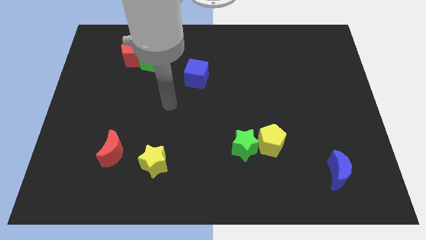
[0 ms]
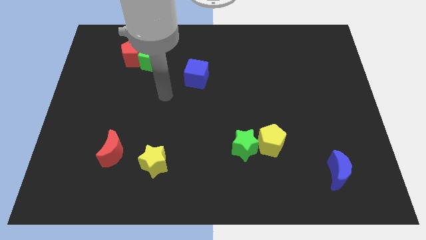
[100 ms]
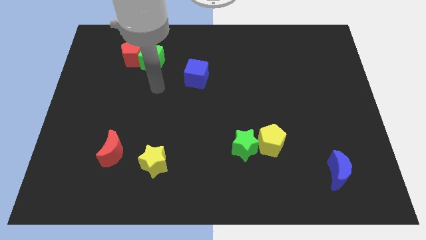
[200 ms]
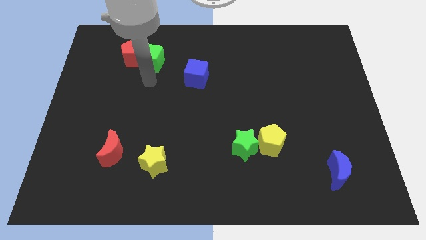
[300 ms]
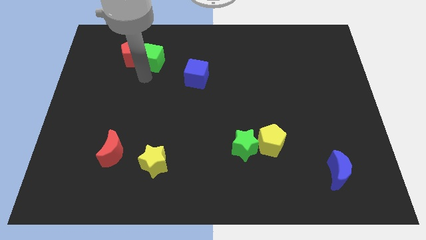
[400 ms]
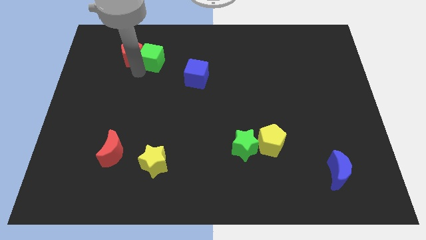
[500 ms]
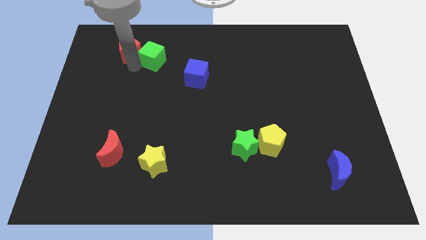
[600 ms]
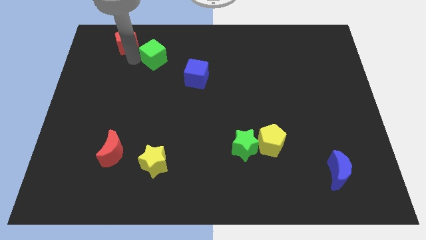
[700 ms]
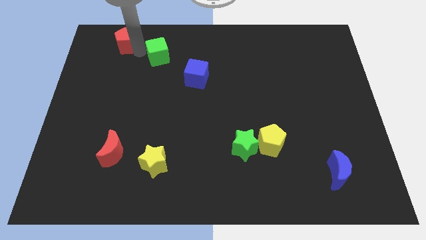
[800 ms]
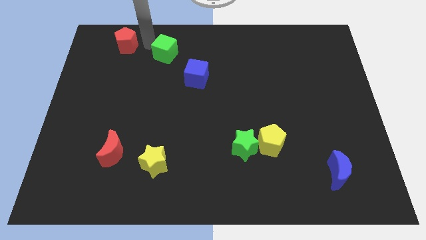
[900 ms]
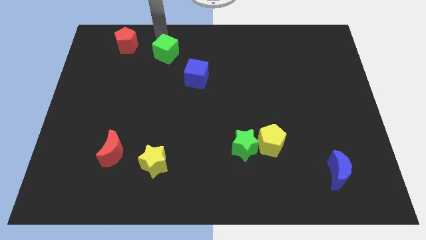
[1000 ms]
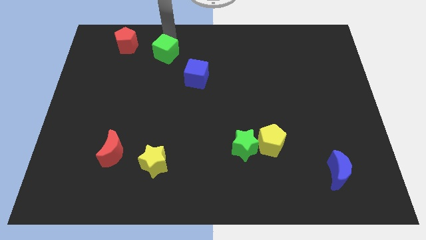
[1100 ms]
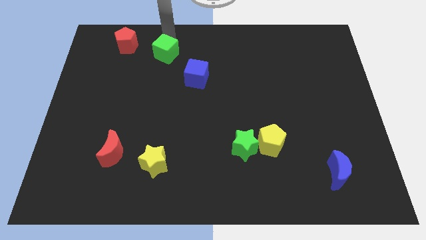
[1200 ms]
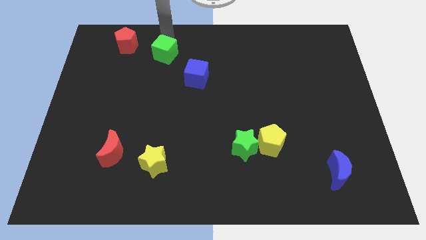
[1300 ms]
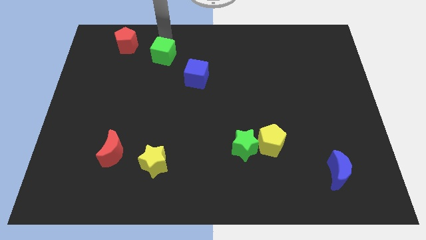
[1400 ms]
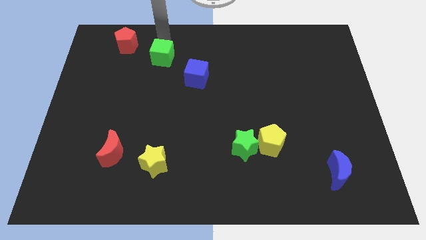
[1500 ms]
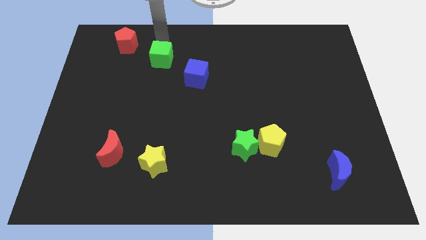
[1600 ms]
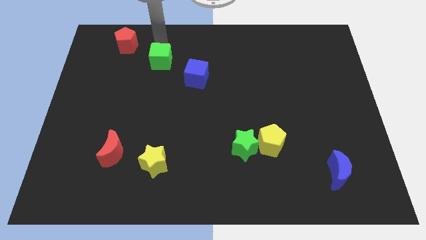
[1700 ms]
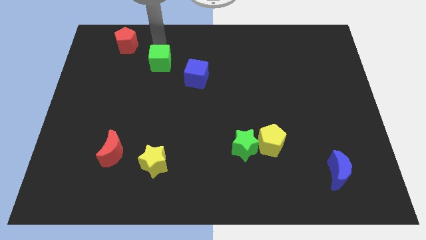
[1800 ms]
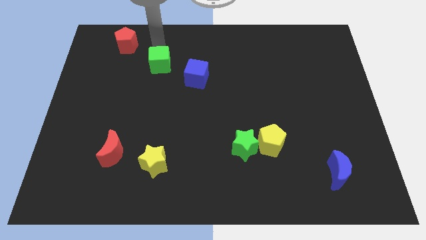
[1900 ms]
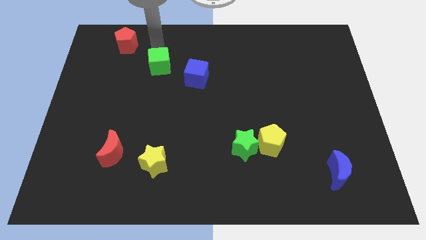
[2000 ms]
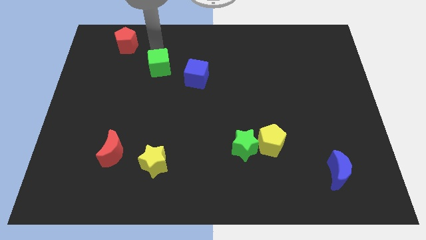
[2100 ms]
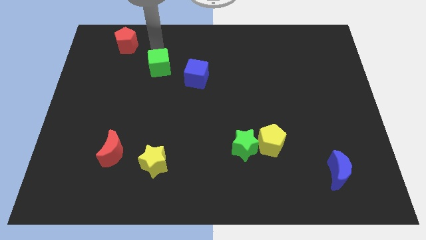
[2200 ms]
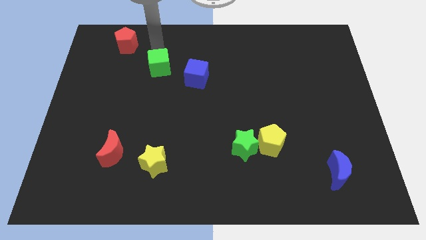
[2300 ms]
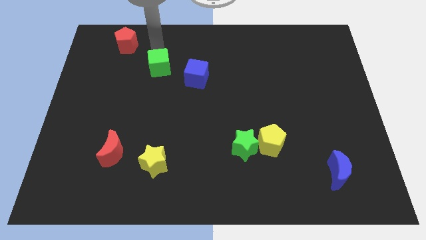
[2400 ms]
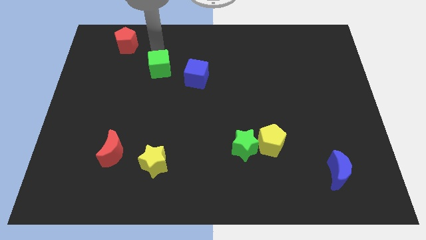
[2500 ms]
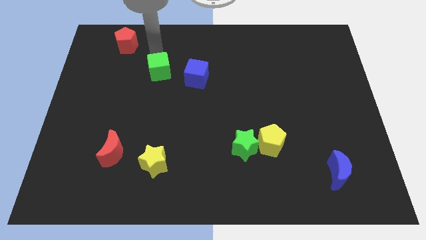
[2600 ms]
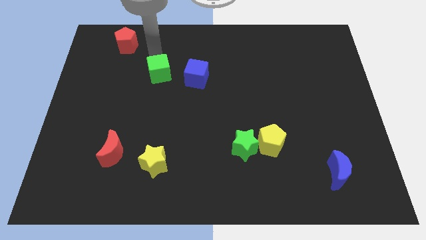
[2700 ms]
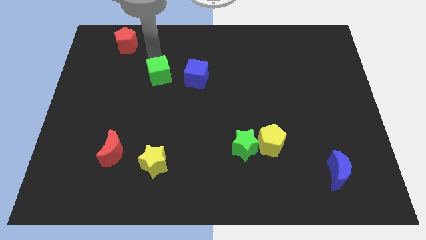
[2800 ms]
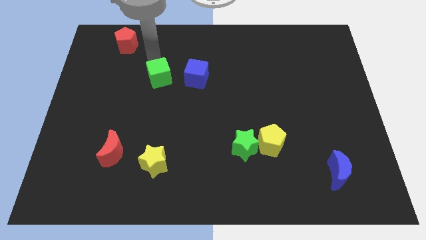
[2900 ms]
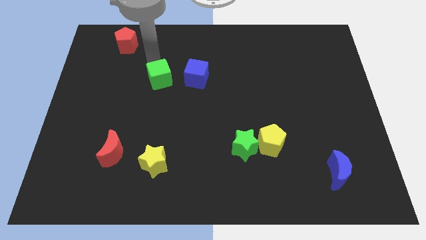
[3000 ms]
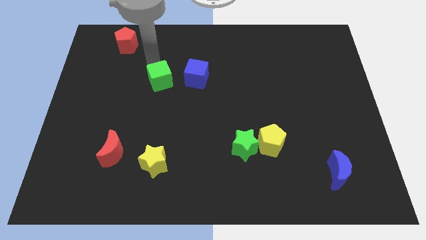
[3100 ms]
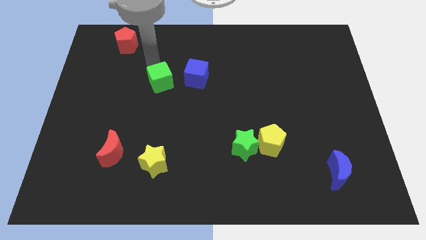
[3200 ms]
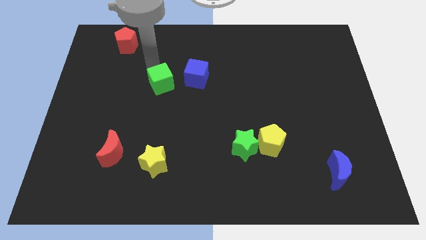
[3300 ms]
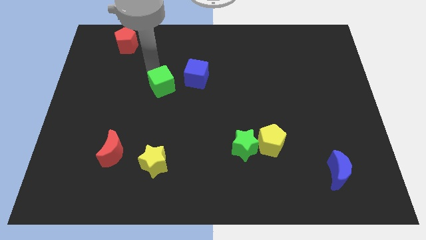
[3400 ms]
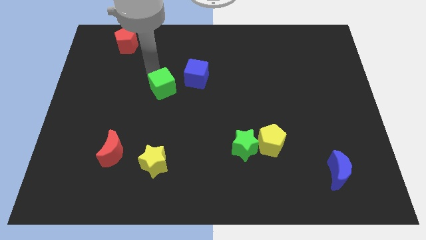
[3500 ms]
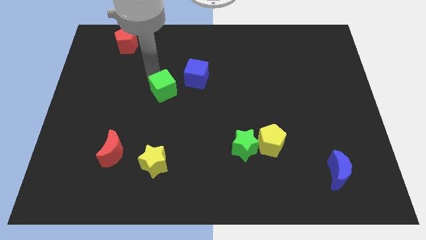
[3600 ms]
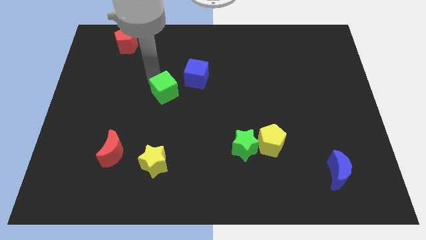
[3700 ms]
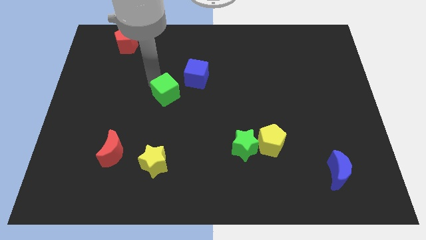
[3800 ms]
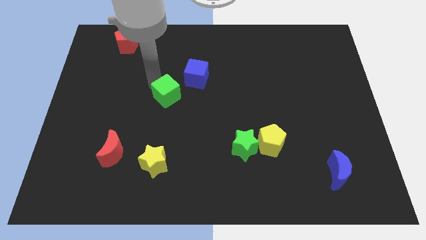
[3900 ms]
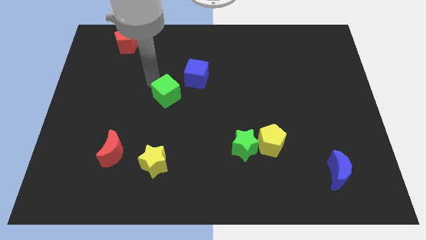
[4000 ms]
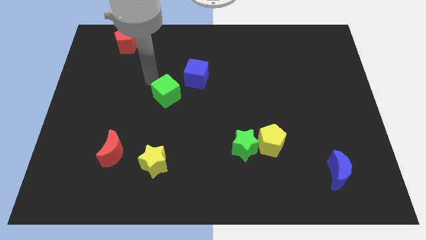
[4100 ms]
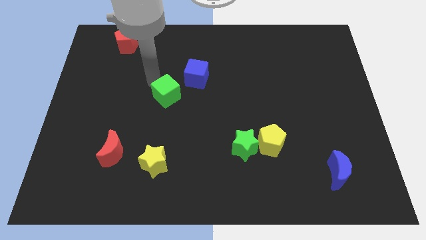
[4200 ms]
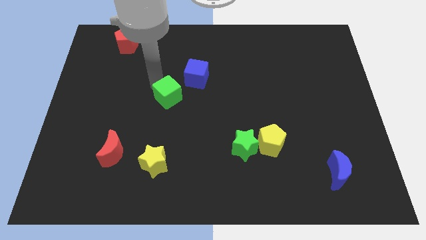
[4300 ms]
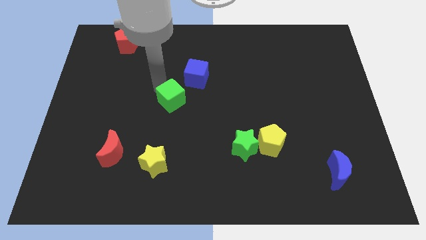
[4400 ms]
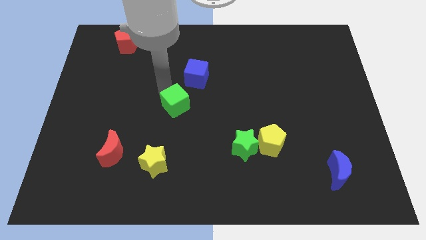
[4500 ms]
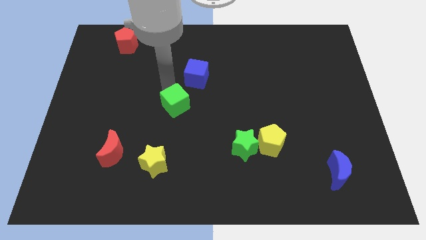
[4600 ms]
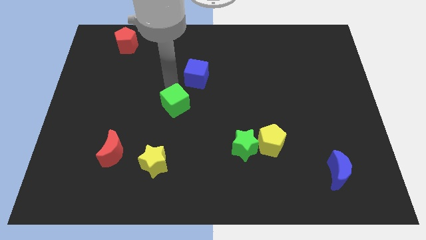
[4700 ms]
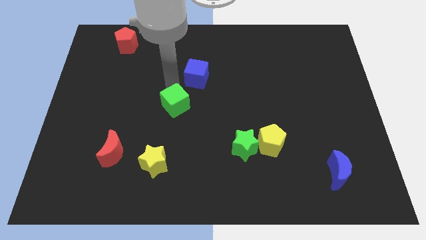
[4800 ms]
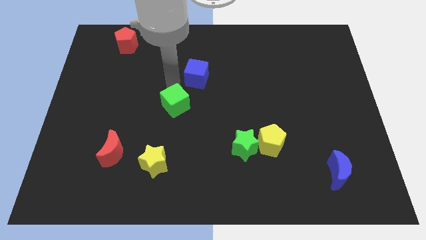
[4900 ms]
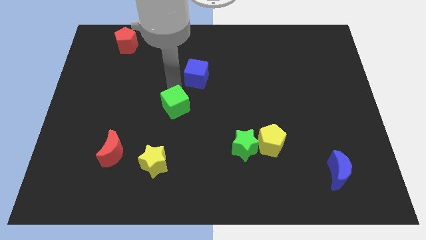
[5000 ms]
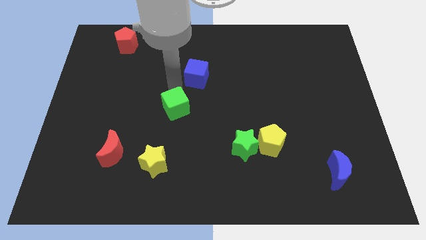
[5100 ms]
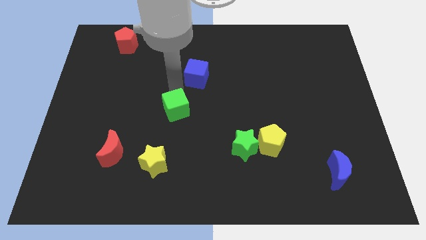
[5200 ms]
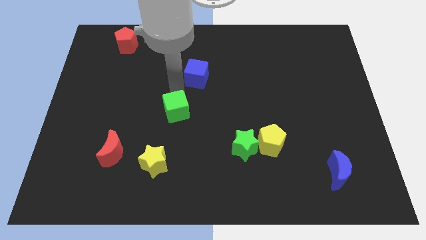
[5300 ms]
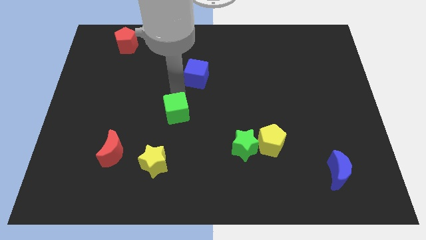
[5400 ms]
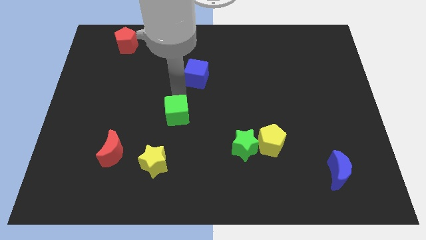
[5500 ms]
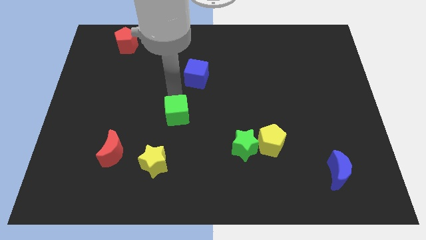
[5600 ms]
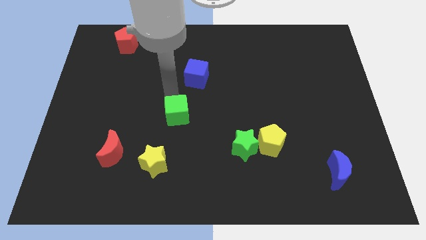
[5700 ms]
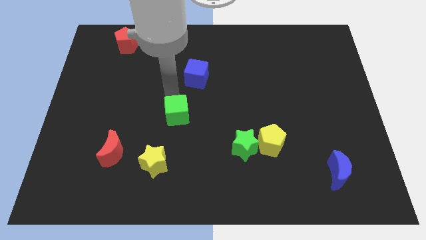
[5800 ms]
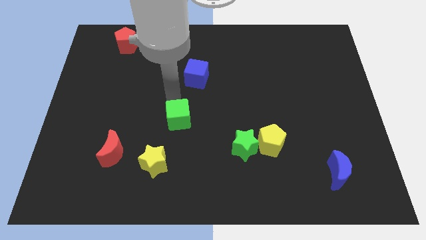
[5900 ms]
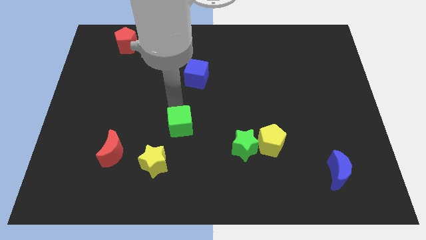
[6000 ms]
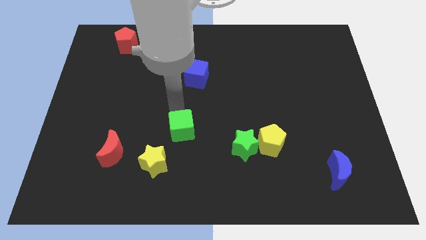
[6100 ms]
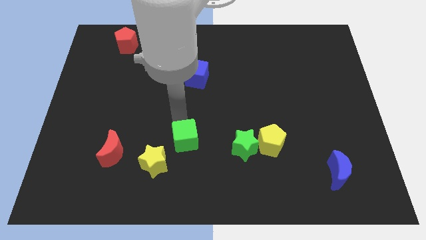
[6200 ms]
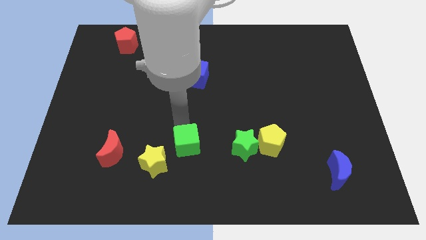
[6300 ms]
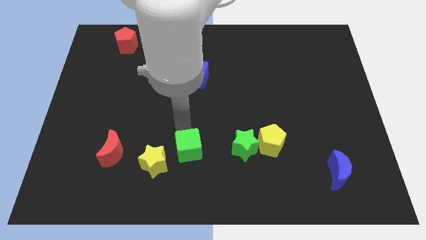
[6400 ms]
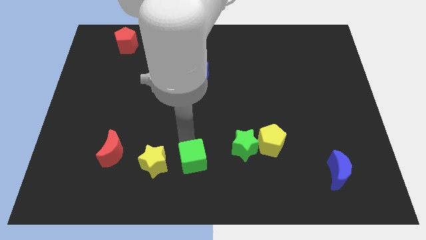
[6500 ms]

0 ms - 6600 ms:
put the green cube to the bottom side

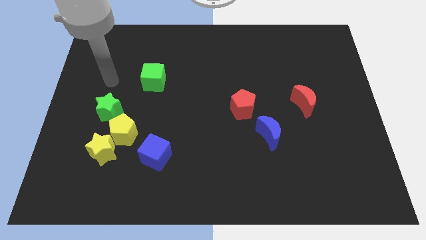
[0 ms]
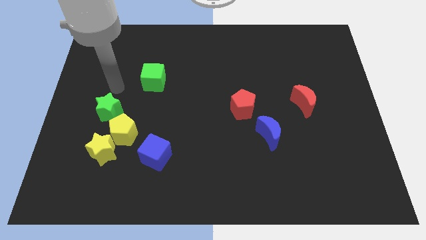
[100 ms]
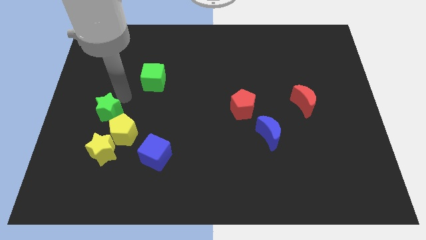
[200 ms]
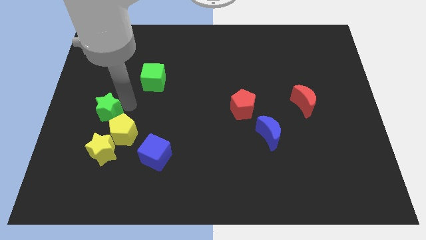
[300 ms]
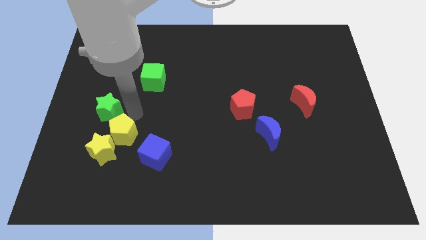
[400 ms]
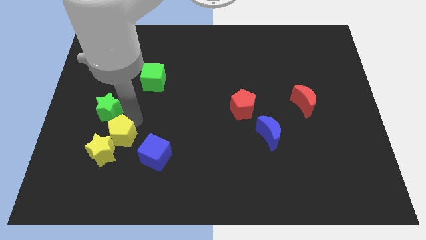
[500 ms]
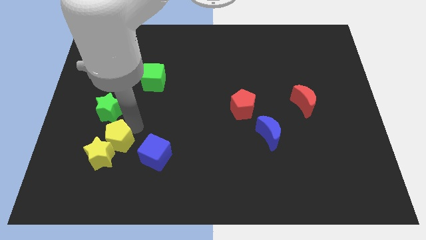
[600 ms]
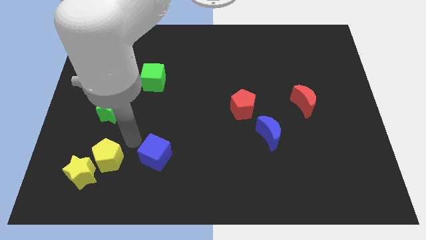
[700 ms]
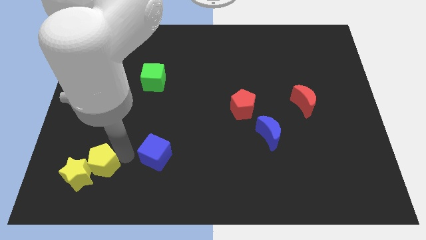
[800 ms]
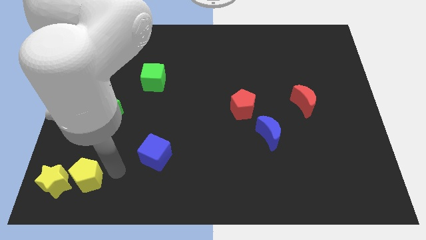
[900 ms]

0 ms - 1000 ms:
slide the yellow star to the bottom left of the board
